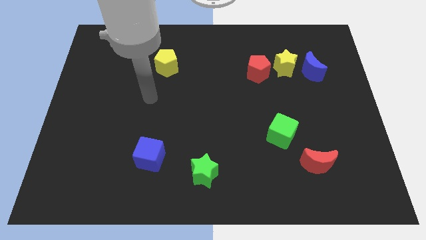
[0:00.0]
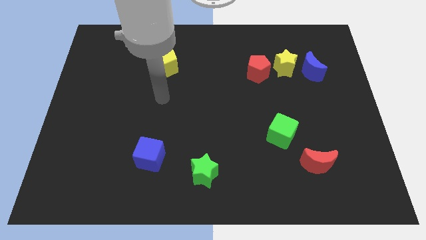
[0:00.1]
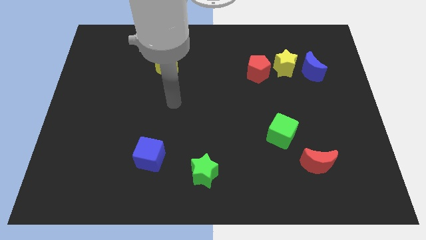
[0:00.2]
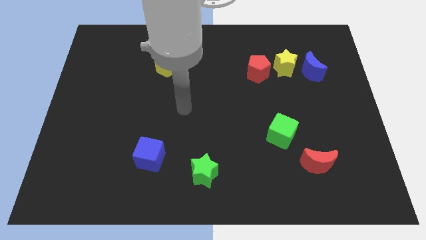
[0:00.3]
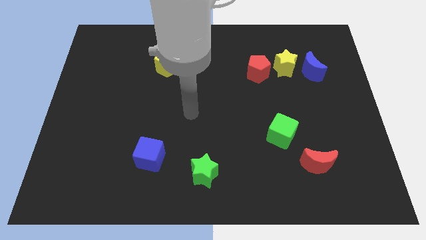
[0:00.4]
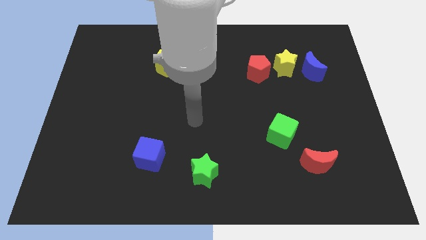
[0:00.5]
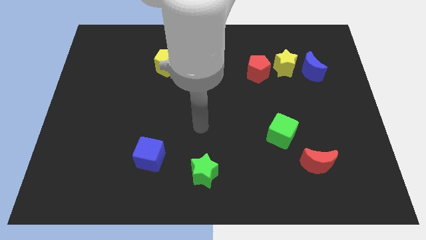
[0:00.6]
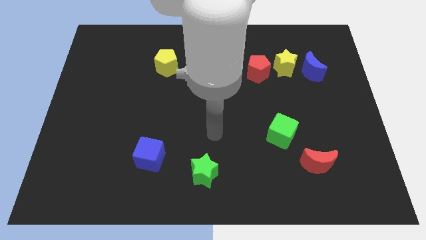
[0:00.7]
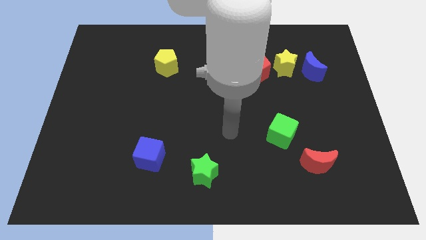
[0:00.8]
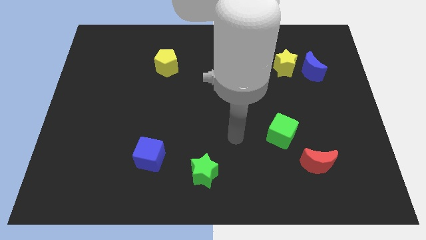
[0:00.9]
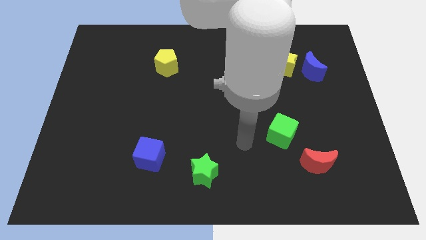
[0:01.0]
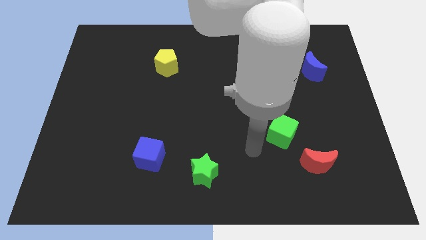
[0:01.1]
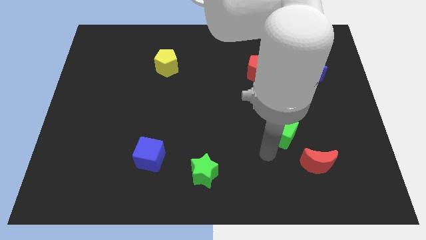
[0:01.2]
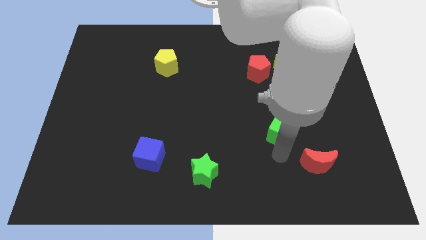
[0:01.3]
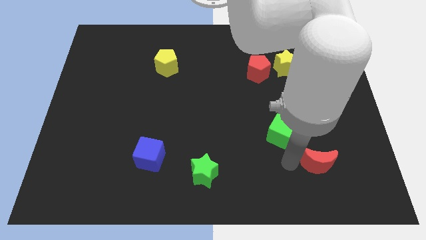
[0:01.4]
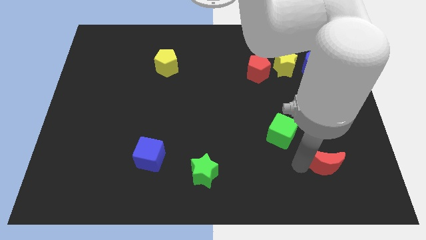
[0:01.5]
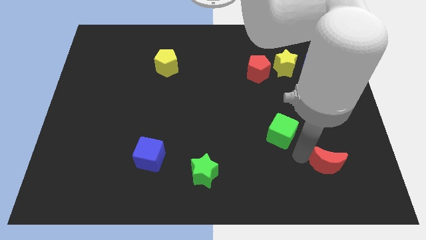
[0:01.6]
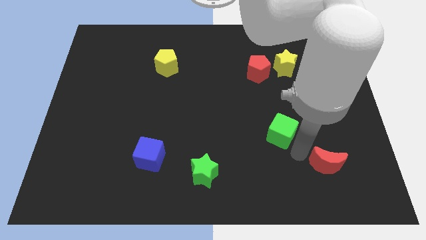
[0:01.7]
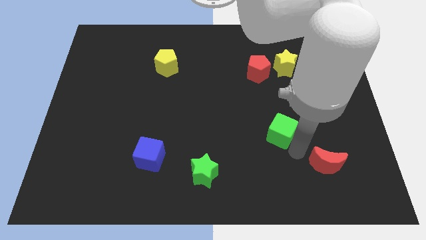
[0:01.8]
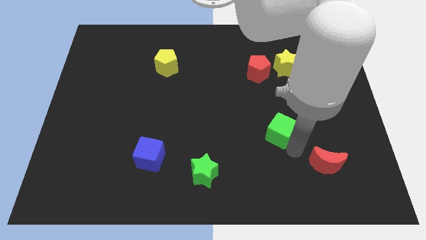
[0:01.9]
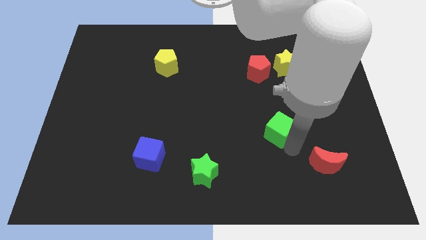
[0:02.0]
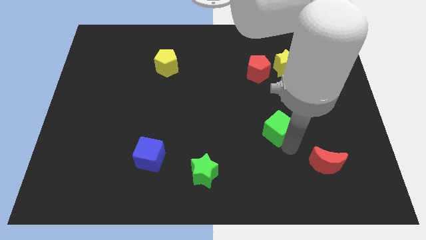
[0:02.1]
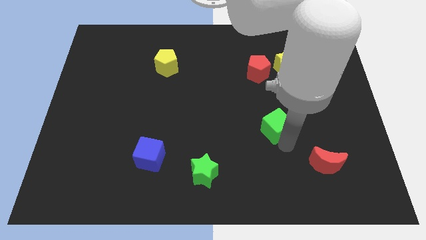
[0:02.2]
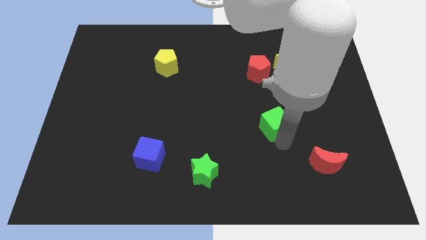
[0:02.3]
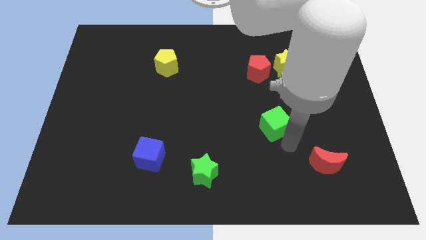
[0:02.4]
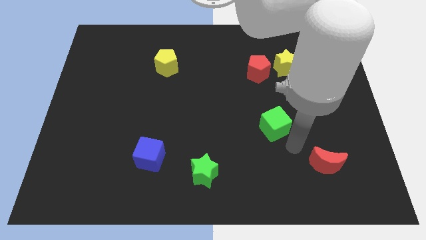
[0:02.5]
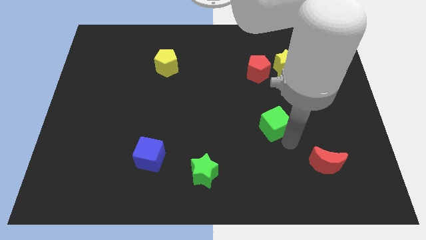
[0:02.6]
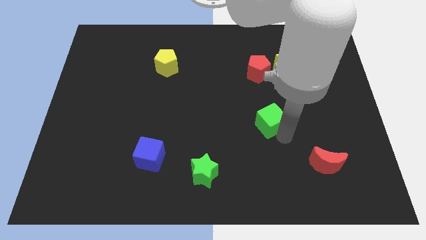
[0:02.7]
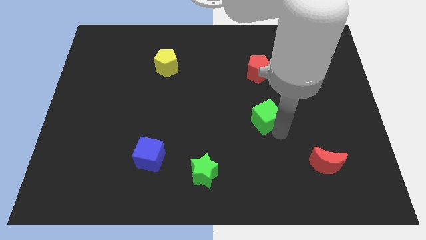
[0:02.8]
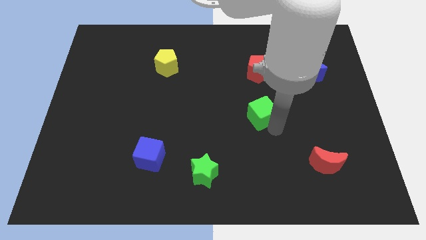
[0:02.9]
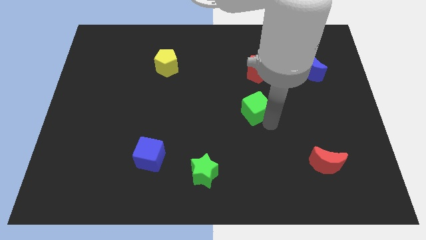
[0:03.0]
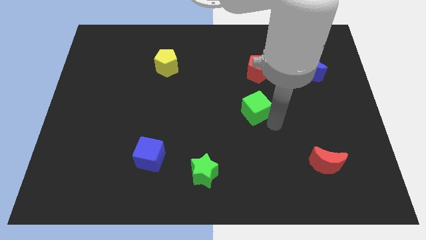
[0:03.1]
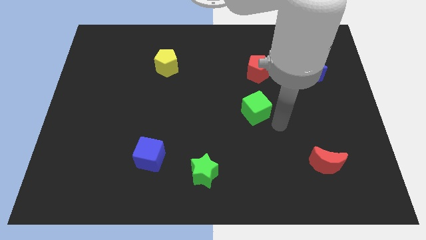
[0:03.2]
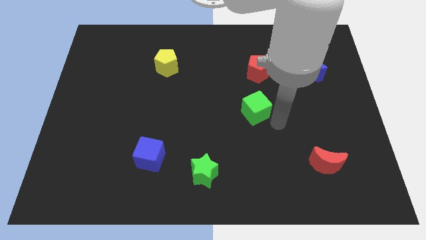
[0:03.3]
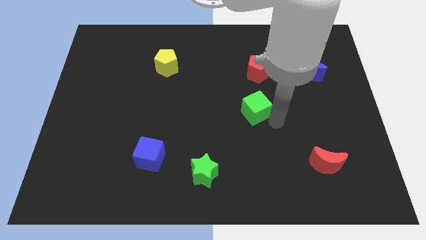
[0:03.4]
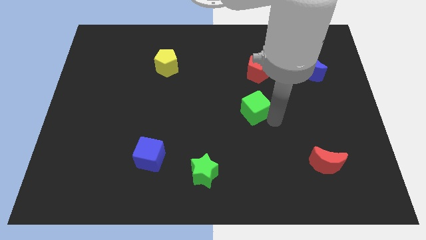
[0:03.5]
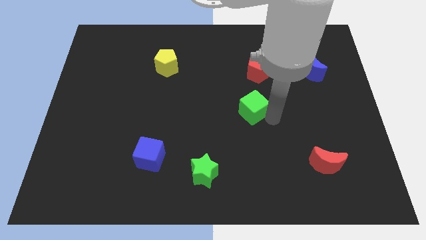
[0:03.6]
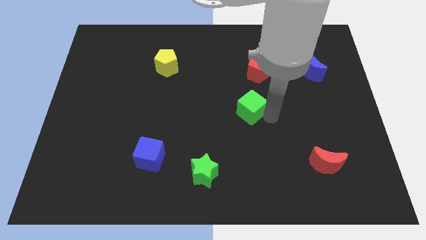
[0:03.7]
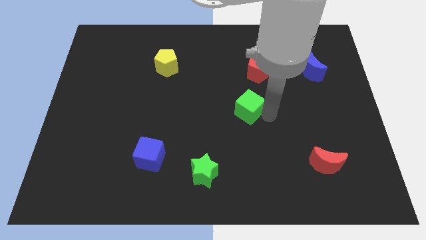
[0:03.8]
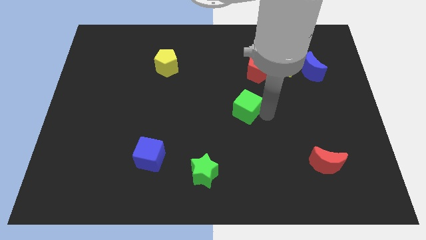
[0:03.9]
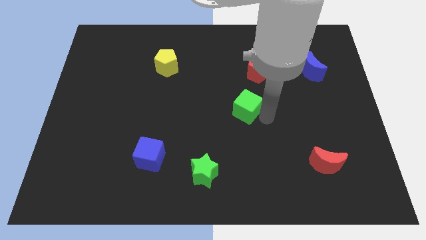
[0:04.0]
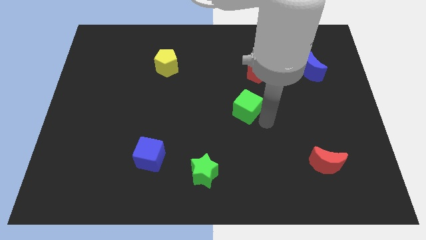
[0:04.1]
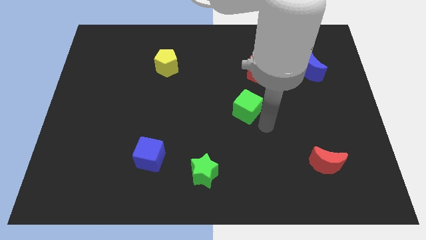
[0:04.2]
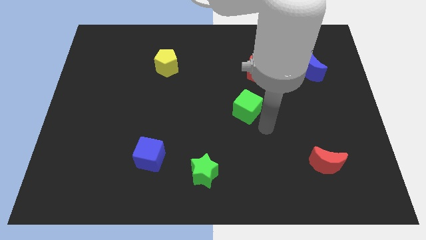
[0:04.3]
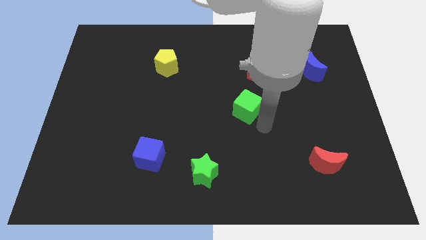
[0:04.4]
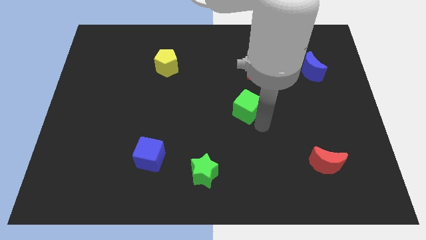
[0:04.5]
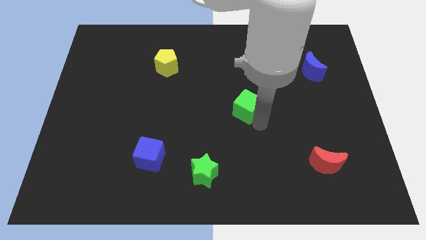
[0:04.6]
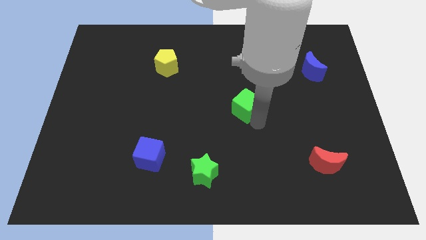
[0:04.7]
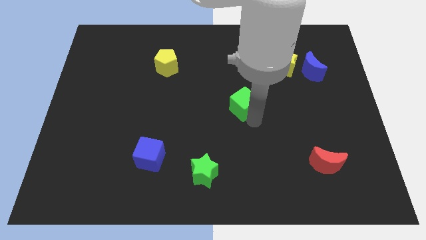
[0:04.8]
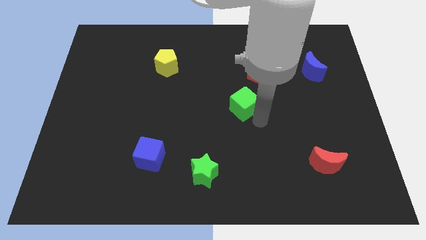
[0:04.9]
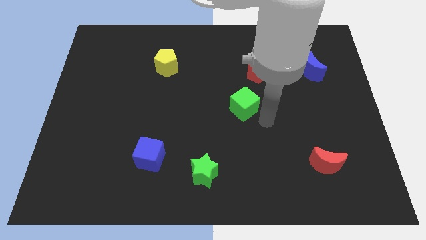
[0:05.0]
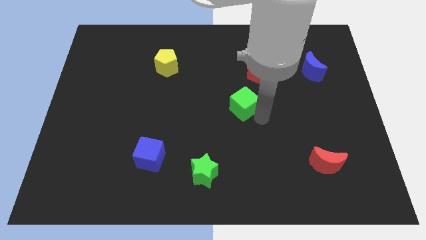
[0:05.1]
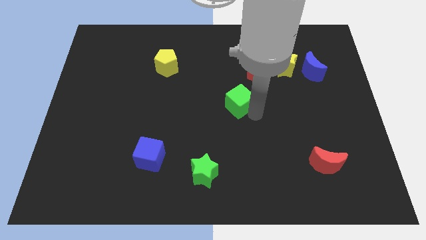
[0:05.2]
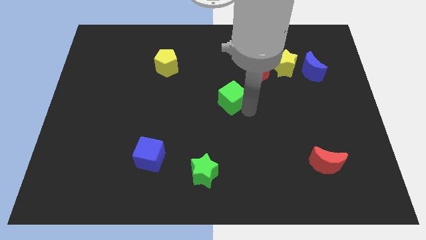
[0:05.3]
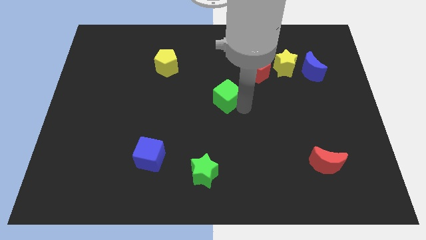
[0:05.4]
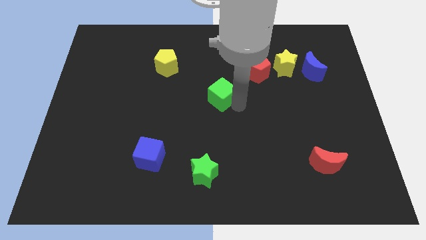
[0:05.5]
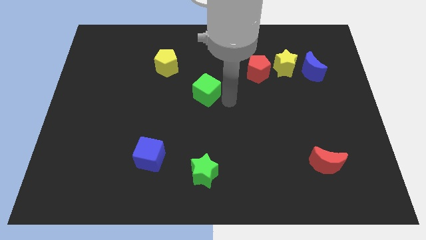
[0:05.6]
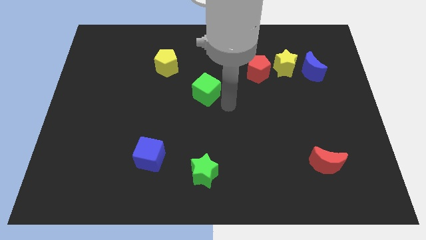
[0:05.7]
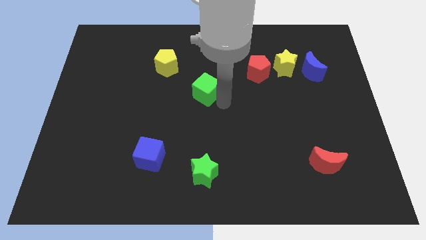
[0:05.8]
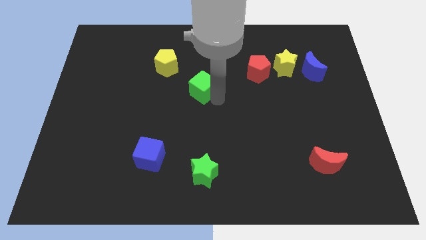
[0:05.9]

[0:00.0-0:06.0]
push the green cube to the bottom right side of the yellow pentagon

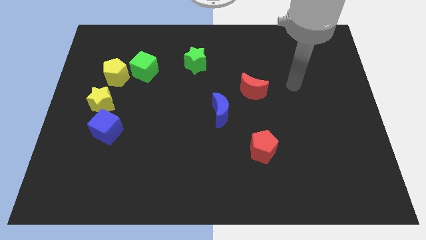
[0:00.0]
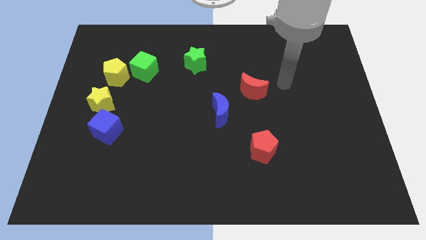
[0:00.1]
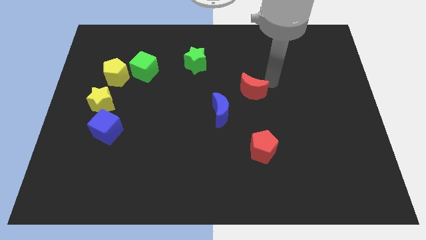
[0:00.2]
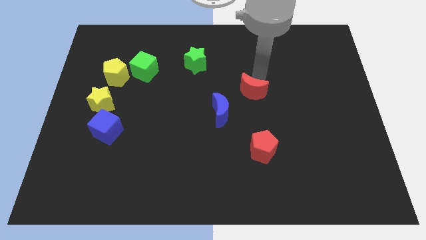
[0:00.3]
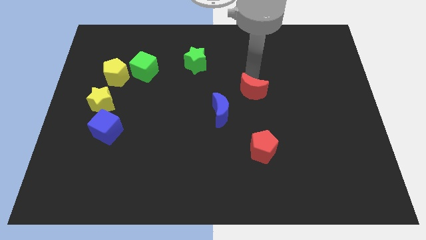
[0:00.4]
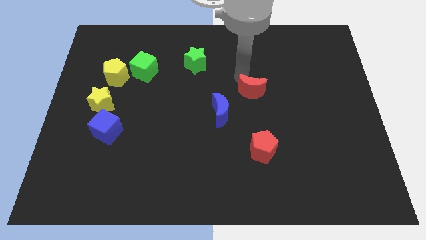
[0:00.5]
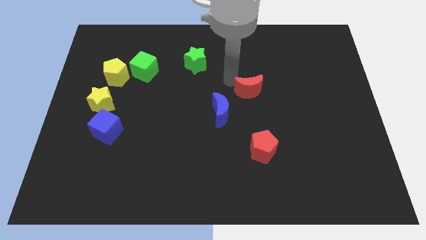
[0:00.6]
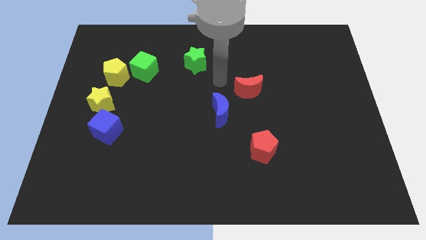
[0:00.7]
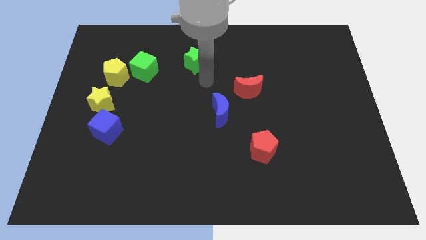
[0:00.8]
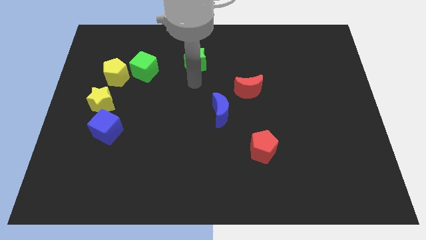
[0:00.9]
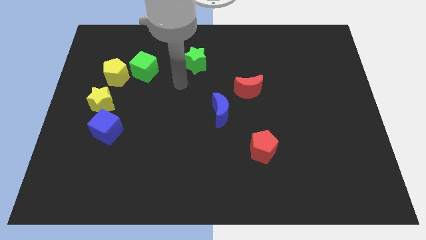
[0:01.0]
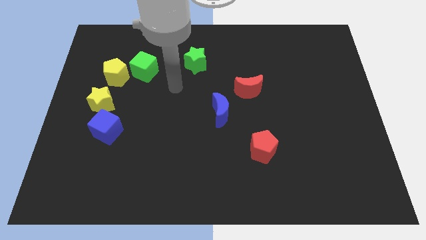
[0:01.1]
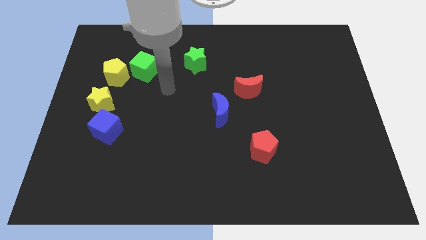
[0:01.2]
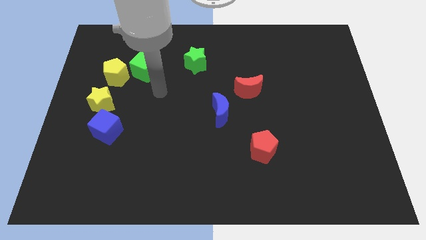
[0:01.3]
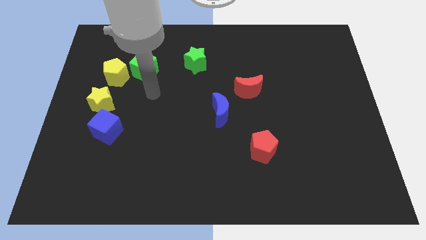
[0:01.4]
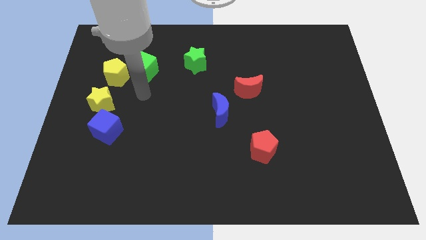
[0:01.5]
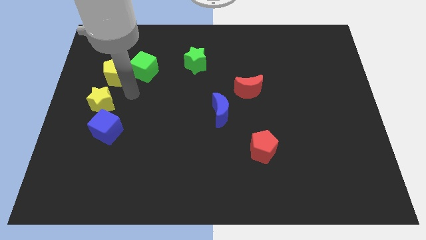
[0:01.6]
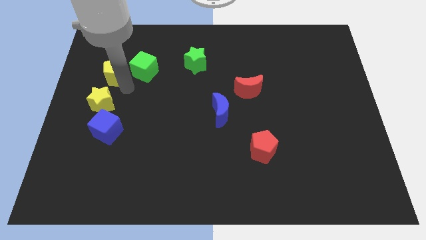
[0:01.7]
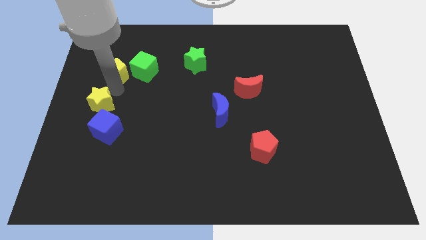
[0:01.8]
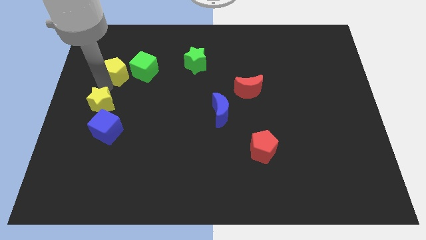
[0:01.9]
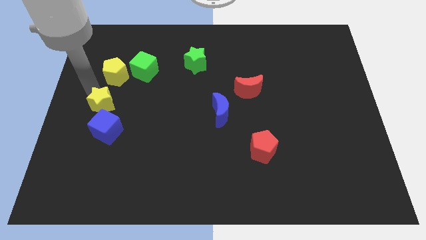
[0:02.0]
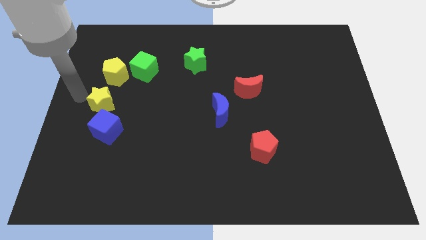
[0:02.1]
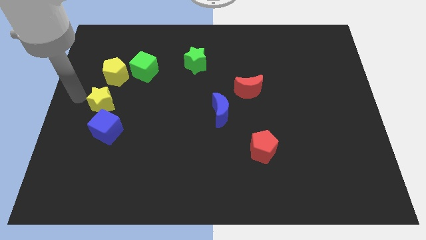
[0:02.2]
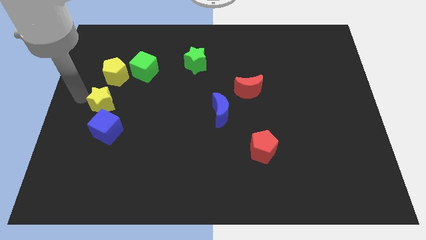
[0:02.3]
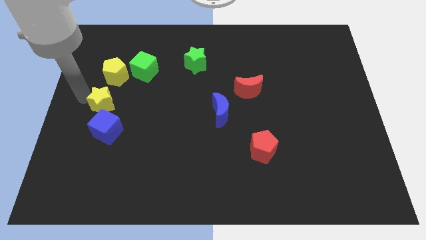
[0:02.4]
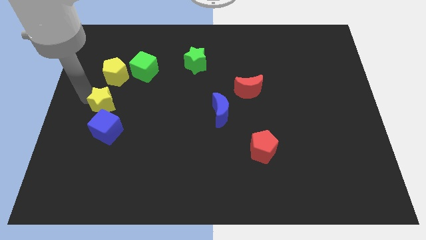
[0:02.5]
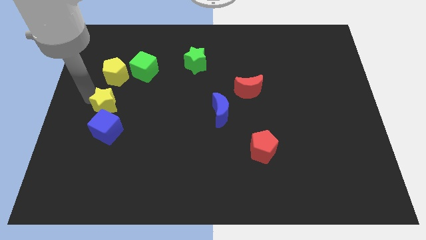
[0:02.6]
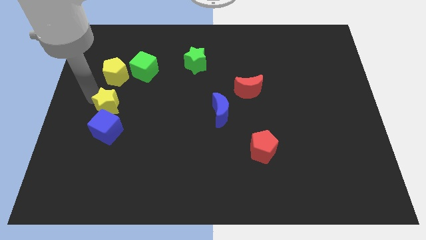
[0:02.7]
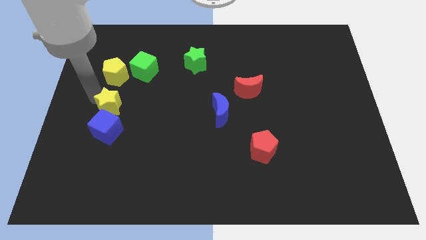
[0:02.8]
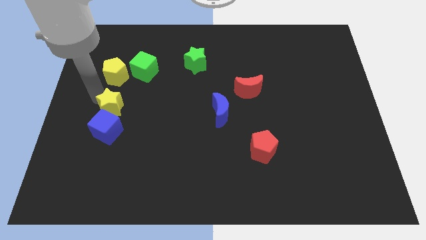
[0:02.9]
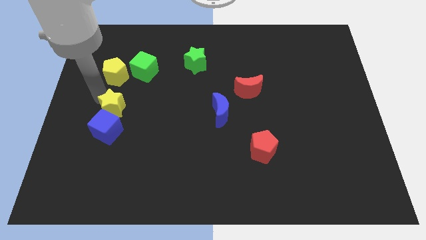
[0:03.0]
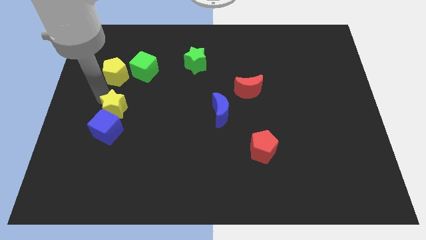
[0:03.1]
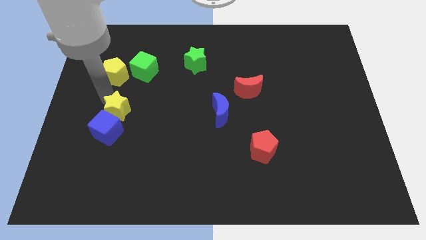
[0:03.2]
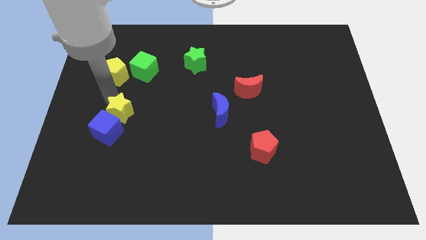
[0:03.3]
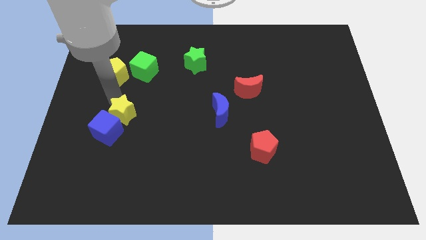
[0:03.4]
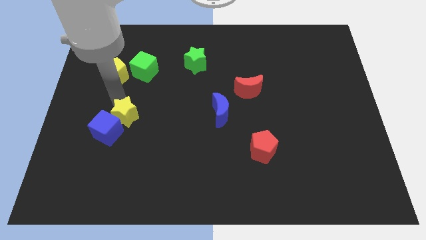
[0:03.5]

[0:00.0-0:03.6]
move the yellow star right of the blue cube
